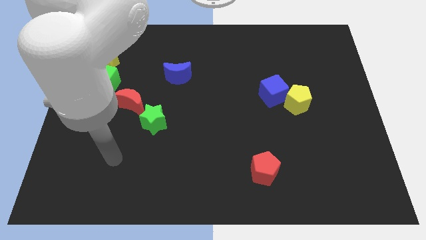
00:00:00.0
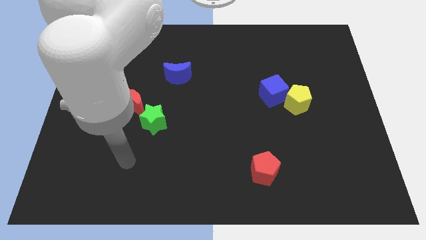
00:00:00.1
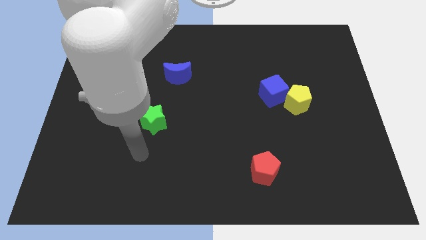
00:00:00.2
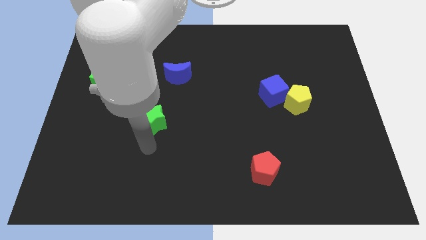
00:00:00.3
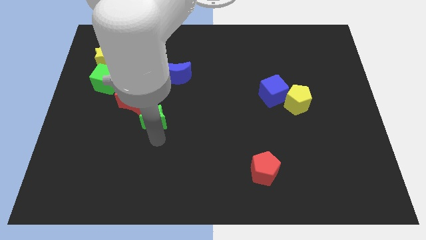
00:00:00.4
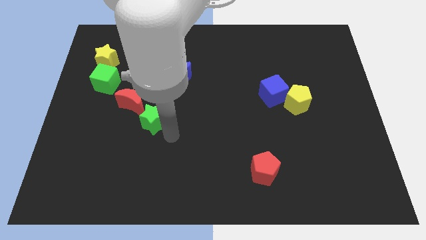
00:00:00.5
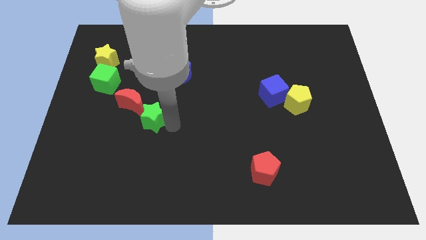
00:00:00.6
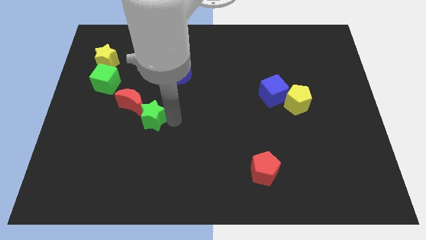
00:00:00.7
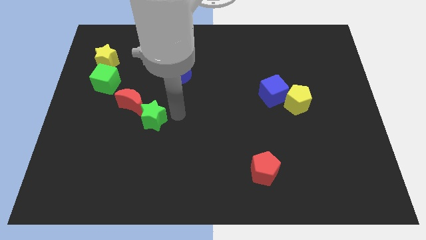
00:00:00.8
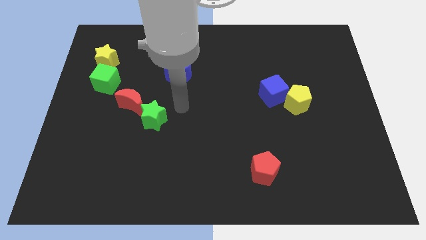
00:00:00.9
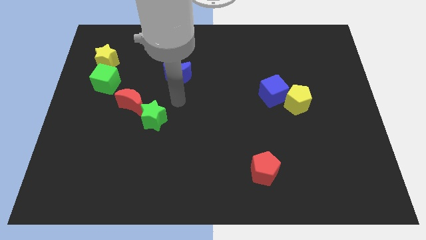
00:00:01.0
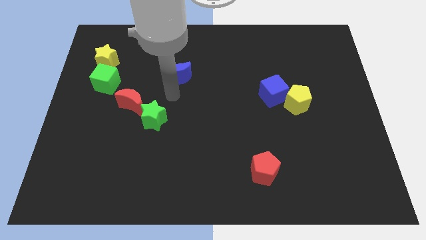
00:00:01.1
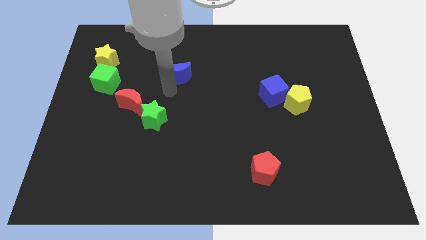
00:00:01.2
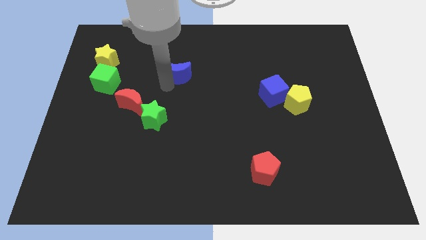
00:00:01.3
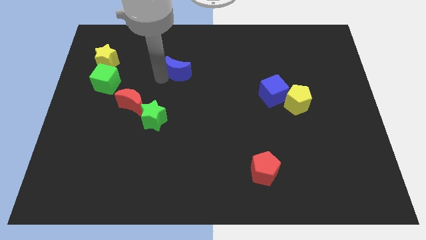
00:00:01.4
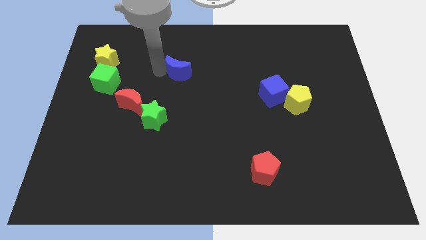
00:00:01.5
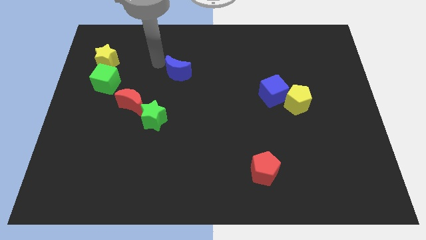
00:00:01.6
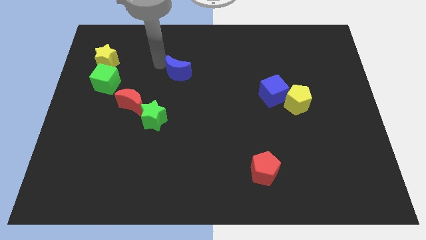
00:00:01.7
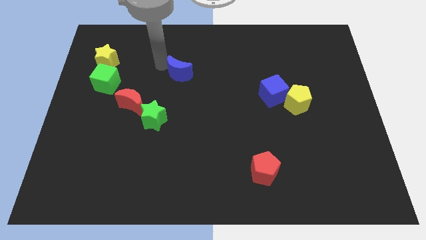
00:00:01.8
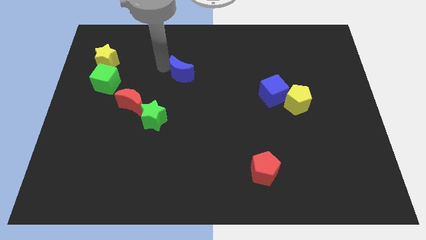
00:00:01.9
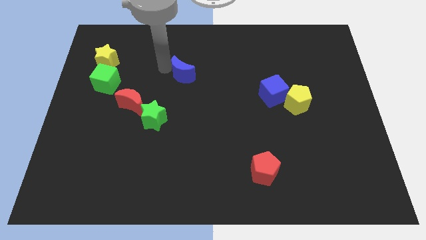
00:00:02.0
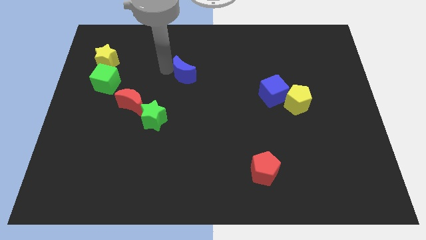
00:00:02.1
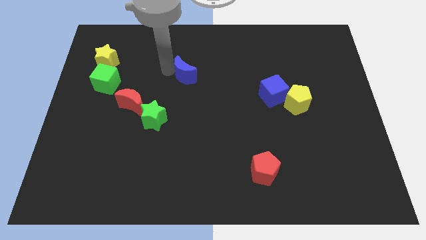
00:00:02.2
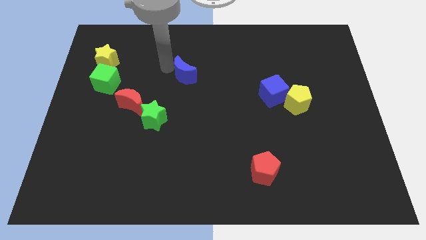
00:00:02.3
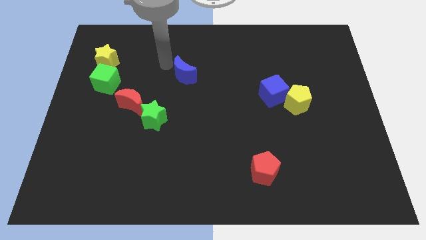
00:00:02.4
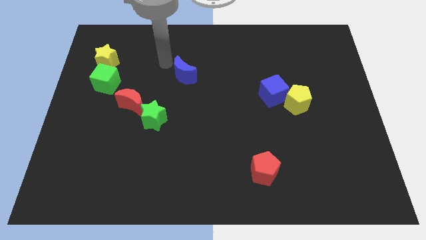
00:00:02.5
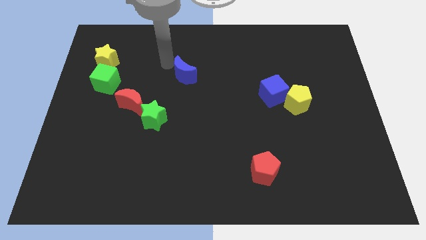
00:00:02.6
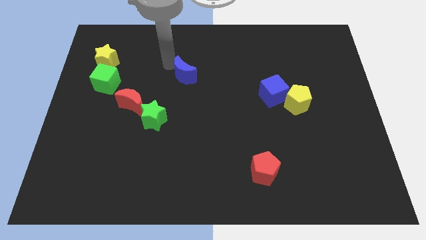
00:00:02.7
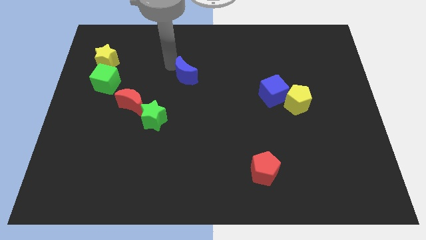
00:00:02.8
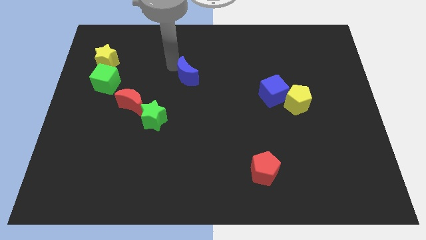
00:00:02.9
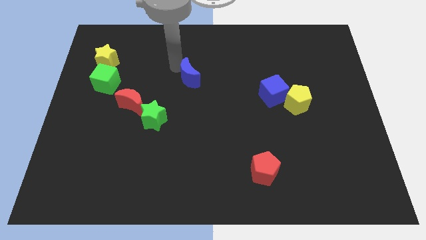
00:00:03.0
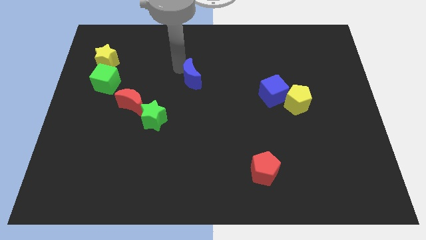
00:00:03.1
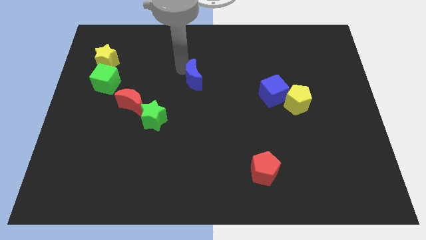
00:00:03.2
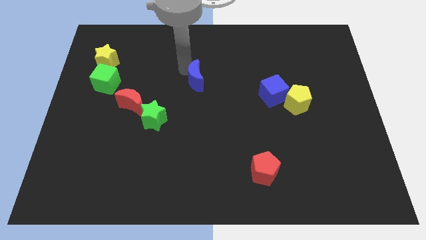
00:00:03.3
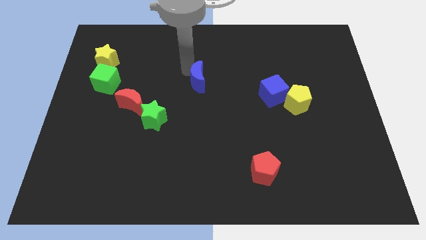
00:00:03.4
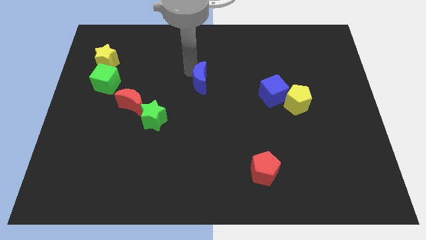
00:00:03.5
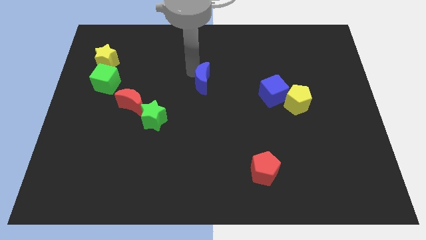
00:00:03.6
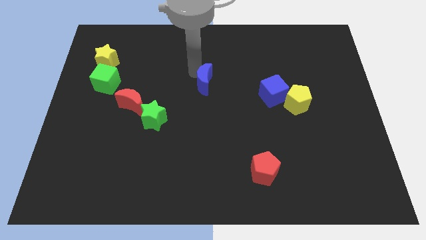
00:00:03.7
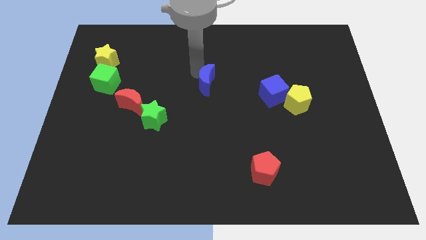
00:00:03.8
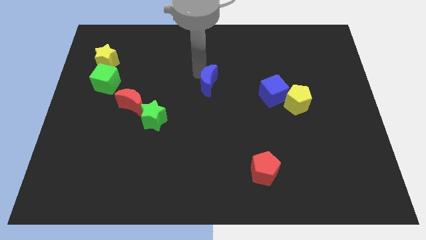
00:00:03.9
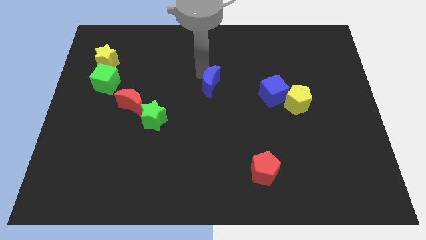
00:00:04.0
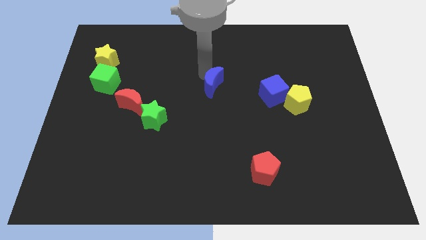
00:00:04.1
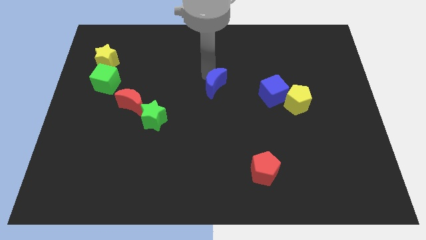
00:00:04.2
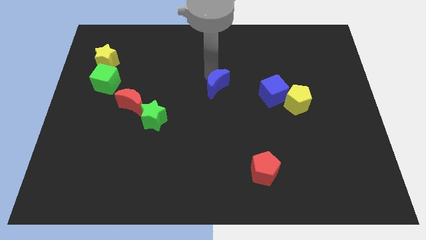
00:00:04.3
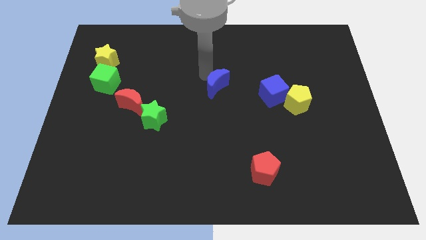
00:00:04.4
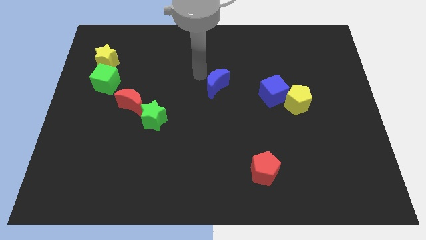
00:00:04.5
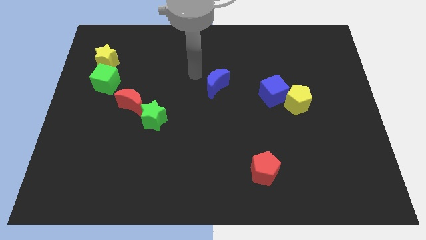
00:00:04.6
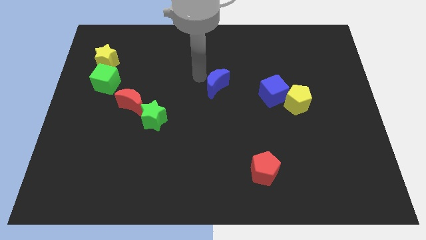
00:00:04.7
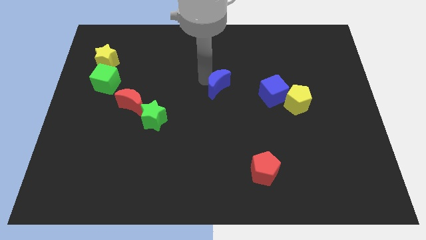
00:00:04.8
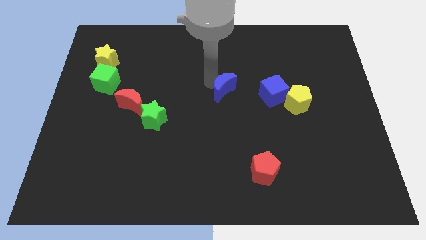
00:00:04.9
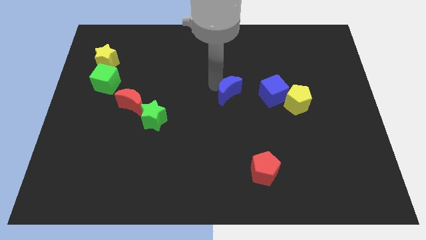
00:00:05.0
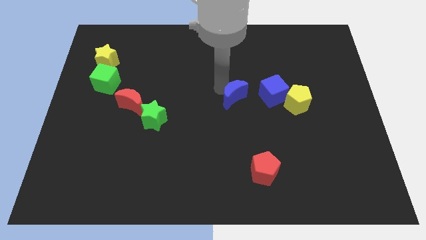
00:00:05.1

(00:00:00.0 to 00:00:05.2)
slide the blue moon just left of the yellow pentagon

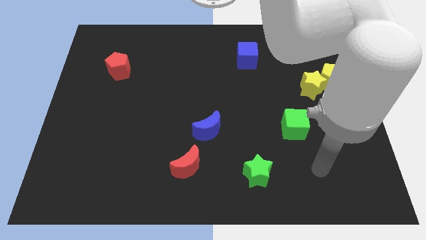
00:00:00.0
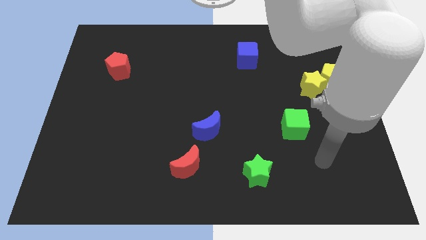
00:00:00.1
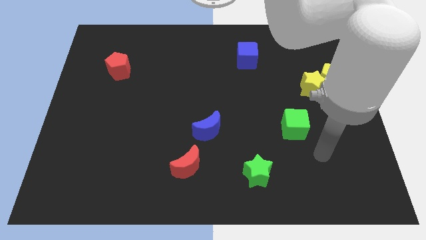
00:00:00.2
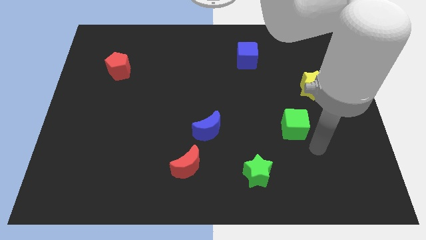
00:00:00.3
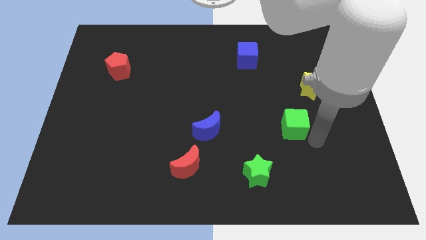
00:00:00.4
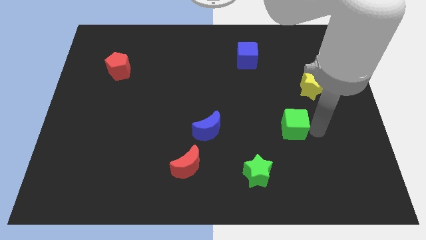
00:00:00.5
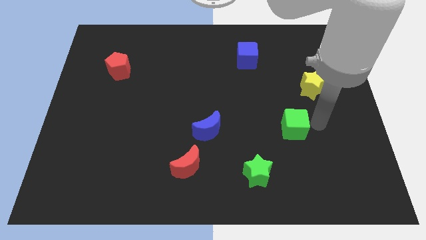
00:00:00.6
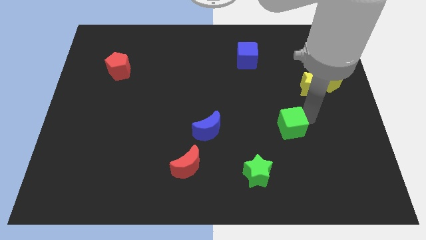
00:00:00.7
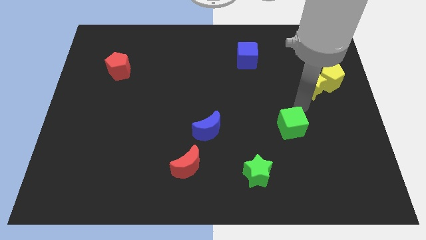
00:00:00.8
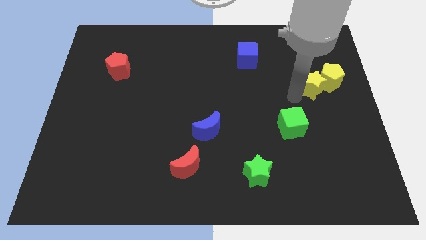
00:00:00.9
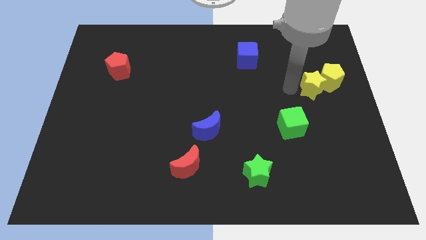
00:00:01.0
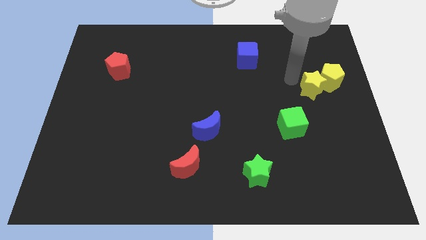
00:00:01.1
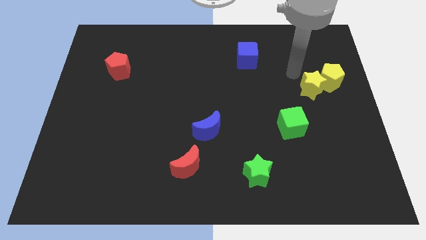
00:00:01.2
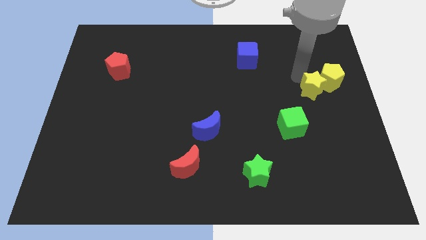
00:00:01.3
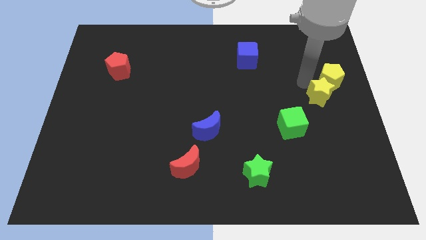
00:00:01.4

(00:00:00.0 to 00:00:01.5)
push the yellow star to the bottom of the yellow pentagon
